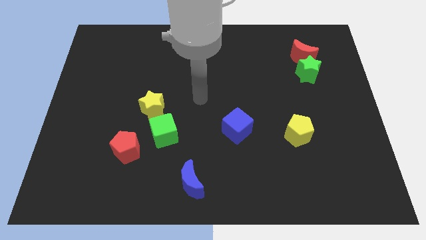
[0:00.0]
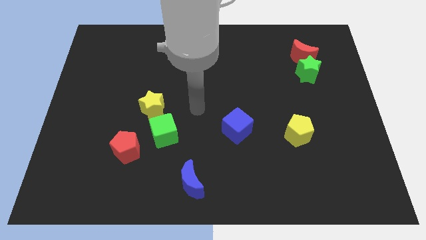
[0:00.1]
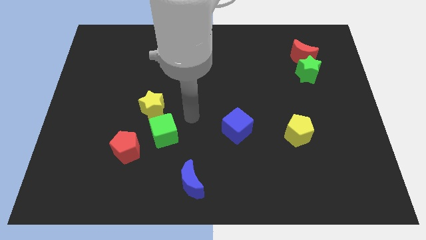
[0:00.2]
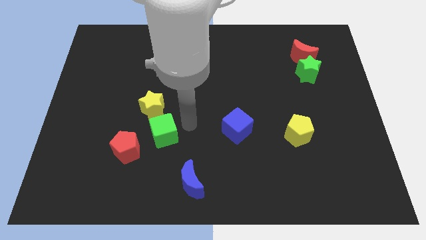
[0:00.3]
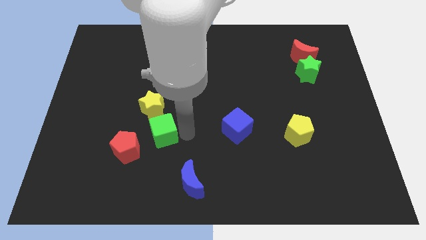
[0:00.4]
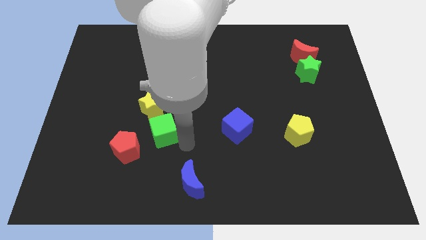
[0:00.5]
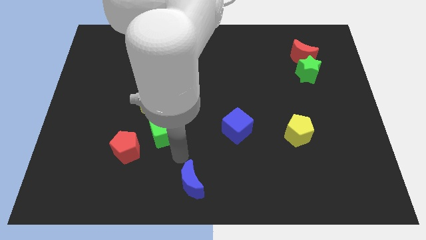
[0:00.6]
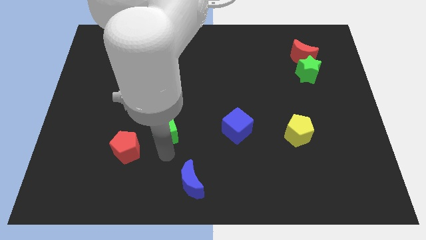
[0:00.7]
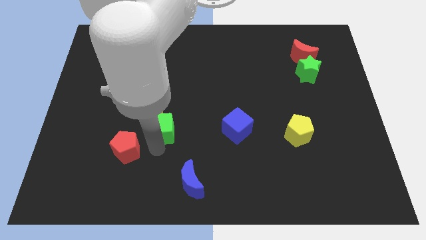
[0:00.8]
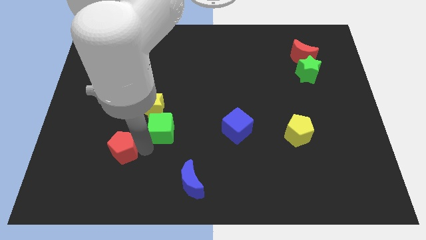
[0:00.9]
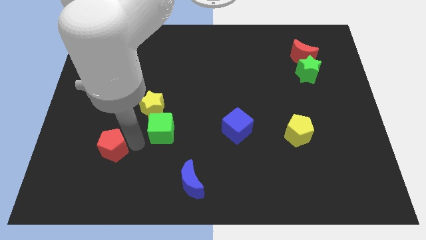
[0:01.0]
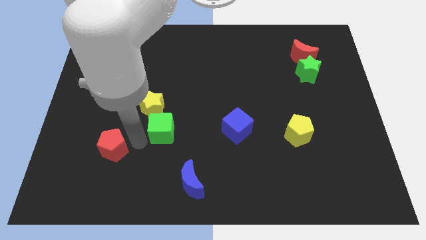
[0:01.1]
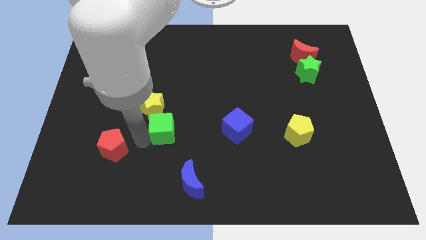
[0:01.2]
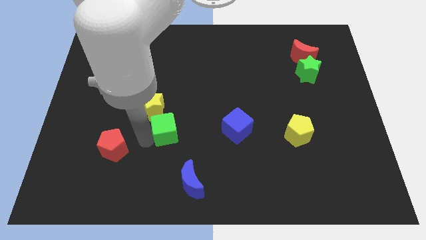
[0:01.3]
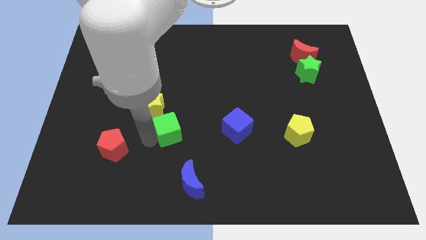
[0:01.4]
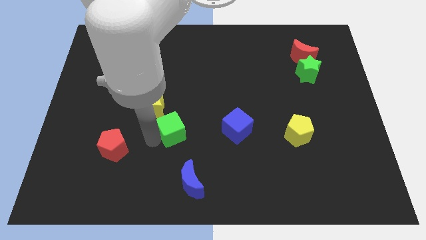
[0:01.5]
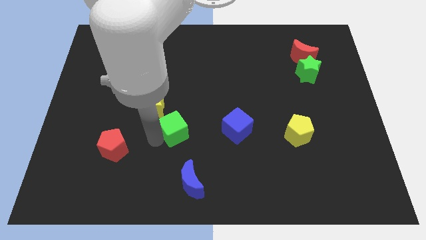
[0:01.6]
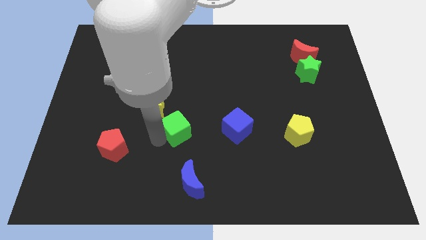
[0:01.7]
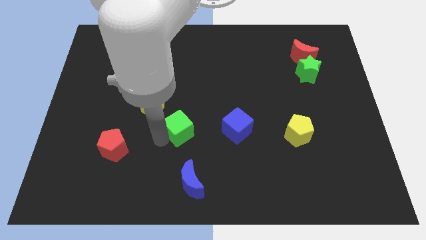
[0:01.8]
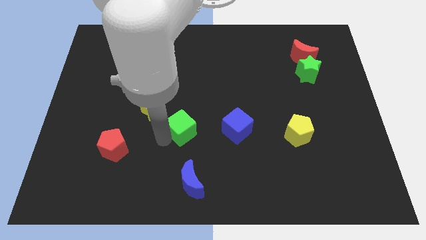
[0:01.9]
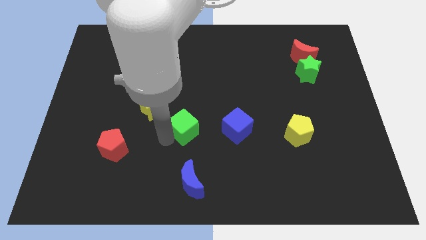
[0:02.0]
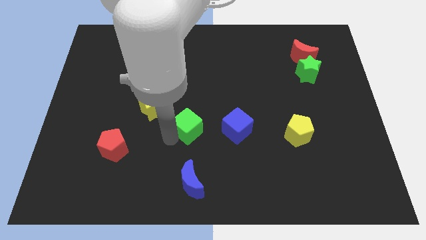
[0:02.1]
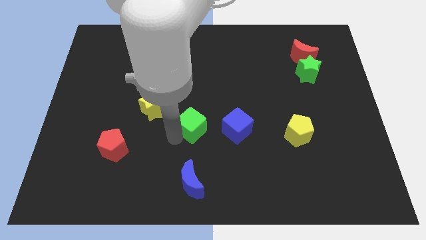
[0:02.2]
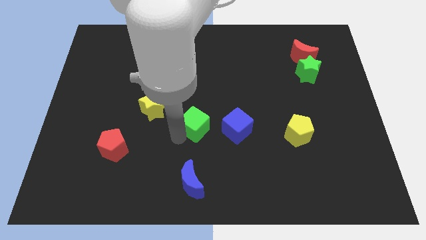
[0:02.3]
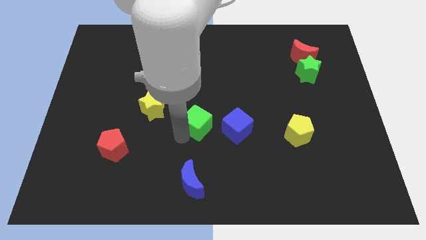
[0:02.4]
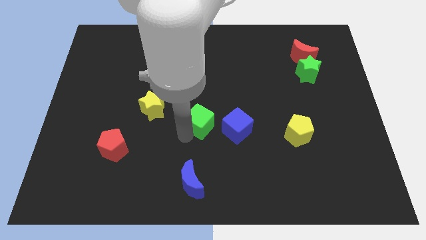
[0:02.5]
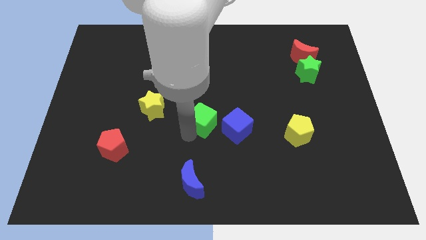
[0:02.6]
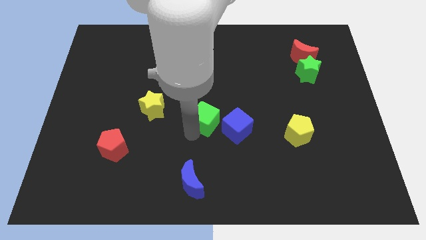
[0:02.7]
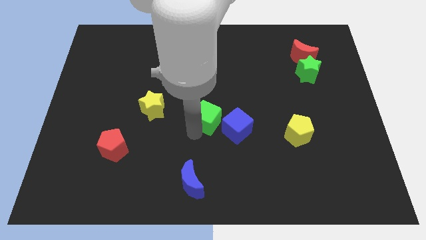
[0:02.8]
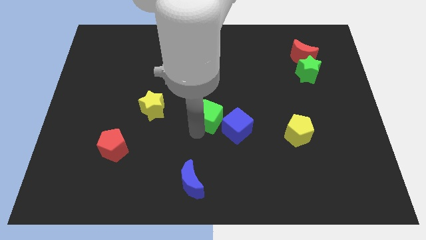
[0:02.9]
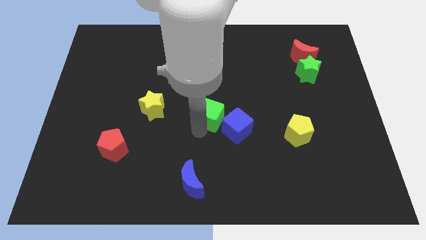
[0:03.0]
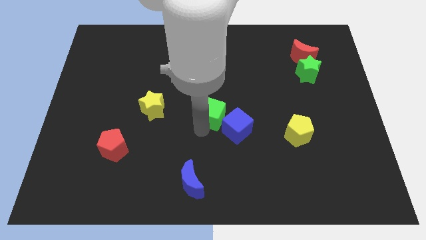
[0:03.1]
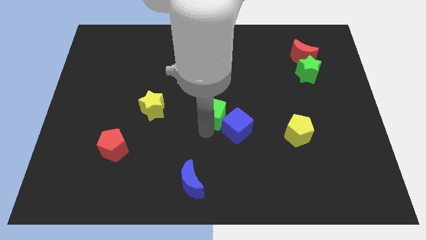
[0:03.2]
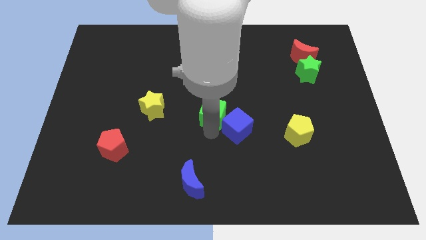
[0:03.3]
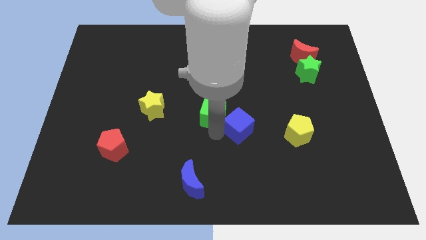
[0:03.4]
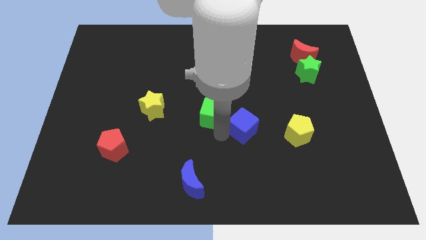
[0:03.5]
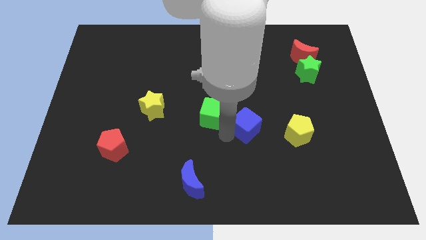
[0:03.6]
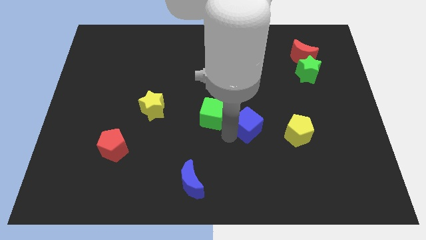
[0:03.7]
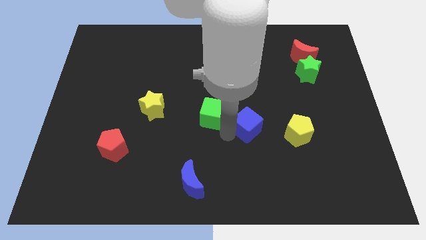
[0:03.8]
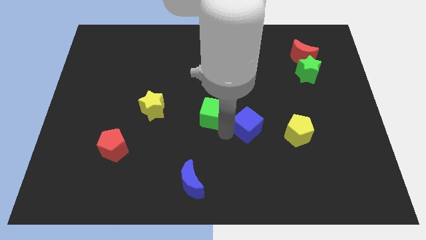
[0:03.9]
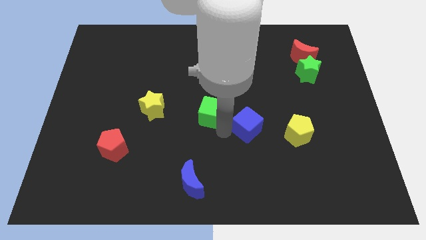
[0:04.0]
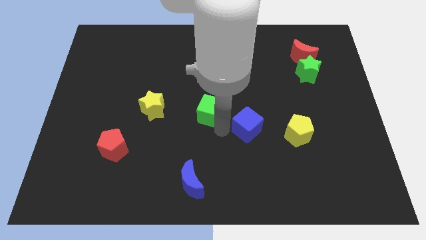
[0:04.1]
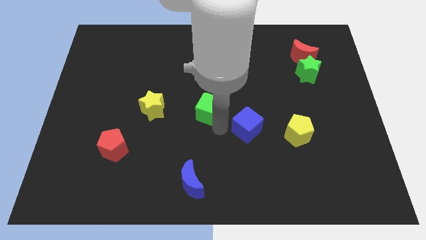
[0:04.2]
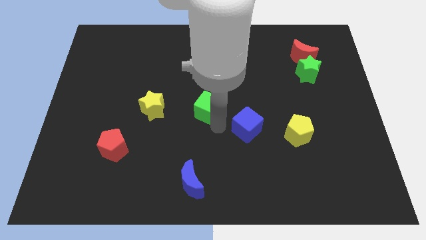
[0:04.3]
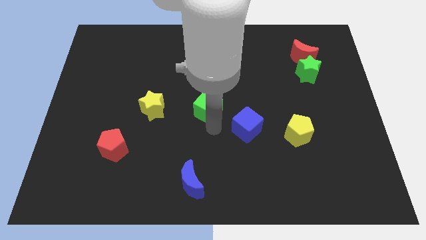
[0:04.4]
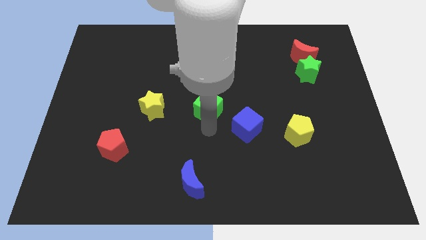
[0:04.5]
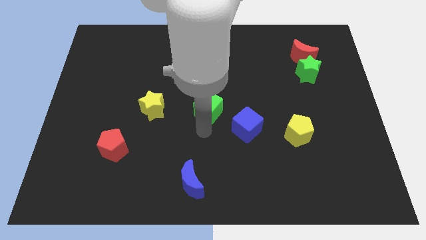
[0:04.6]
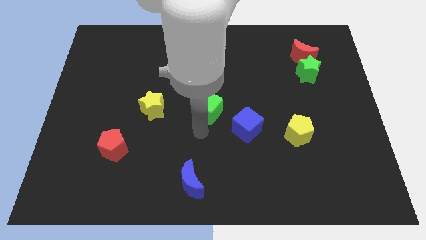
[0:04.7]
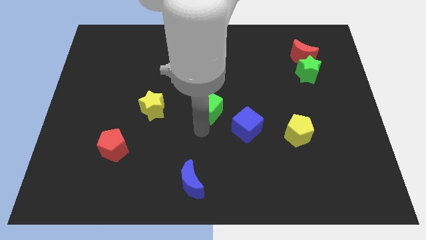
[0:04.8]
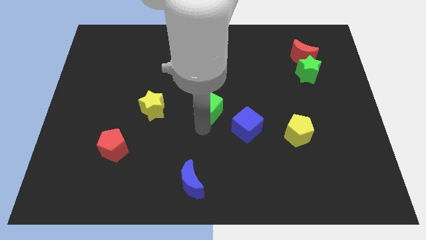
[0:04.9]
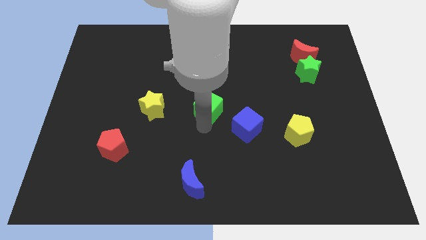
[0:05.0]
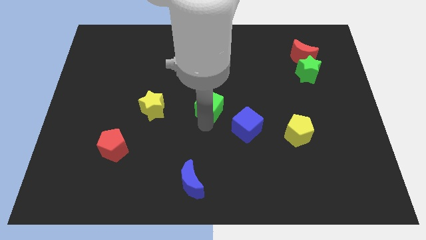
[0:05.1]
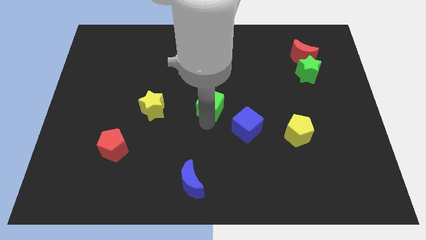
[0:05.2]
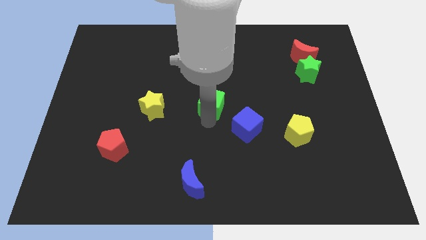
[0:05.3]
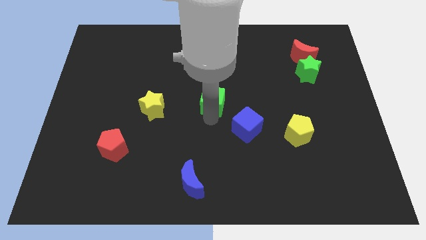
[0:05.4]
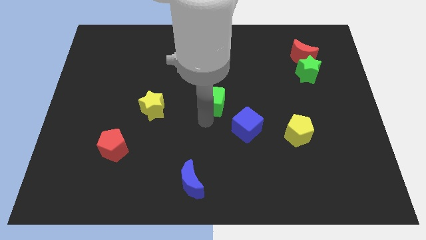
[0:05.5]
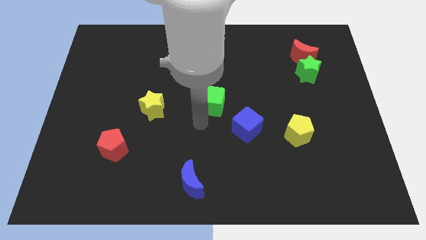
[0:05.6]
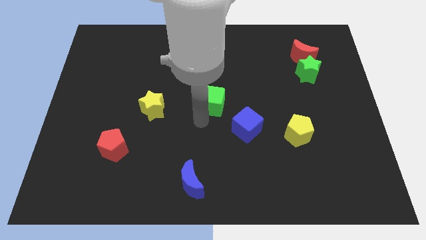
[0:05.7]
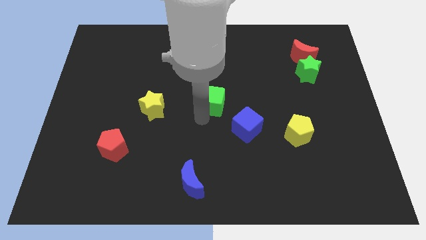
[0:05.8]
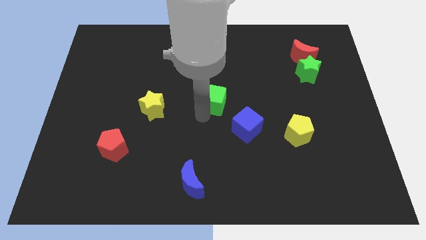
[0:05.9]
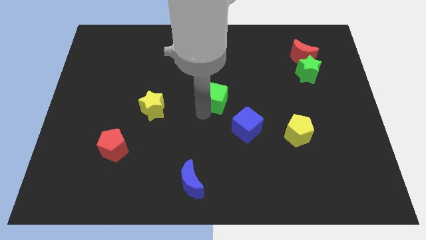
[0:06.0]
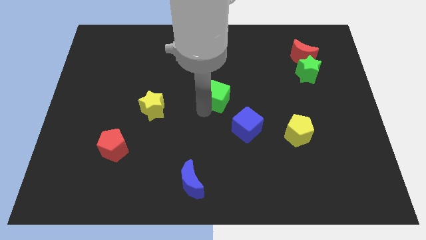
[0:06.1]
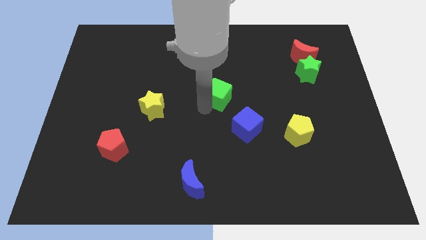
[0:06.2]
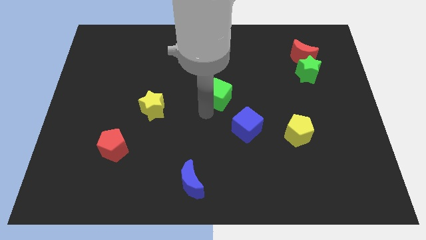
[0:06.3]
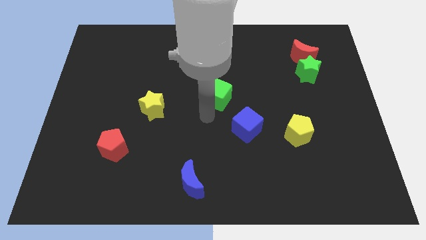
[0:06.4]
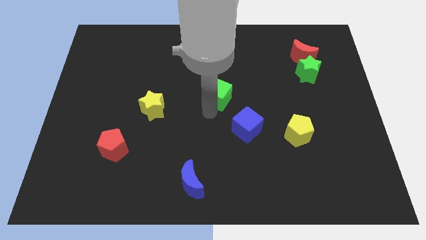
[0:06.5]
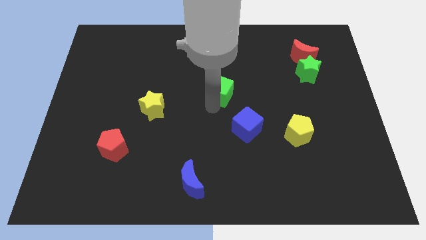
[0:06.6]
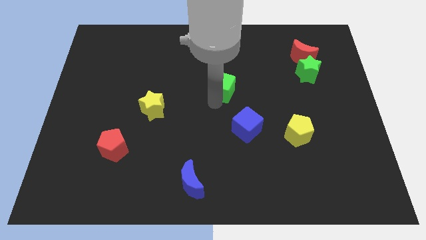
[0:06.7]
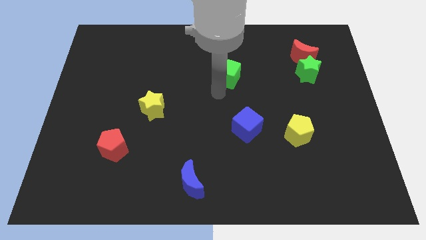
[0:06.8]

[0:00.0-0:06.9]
move the green cube up and then right

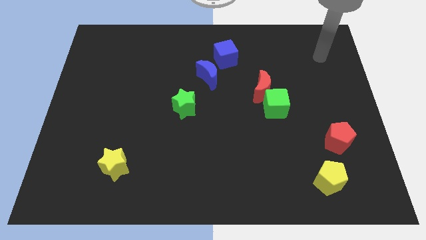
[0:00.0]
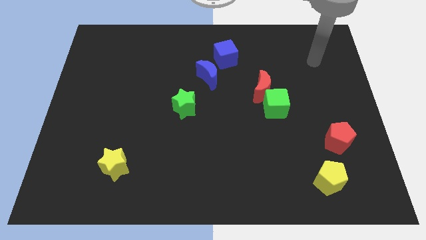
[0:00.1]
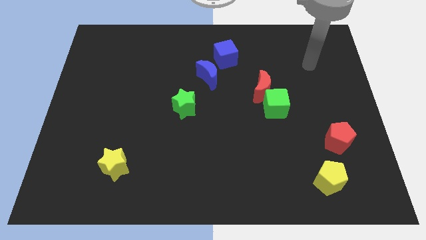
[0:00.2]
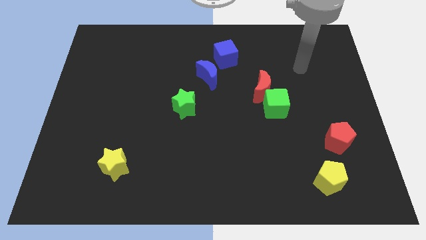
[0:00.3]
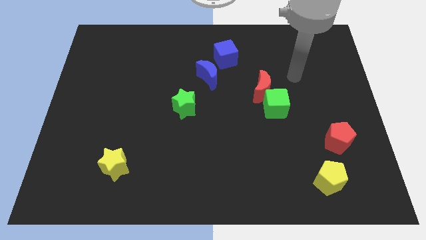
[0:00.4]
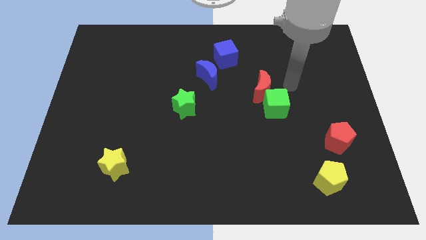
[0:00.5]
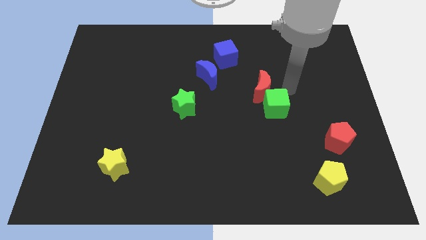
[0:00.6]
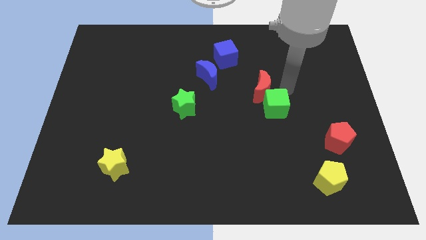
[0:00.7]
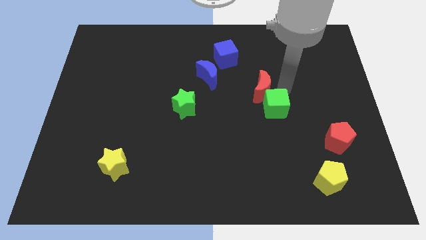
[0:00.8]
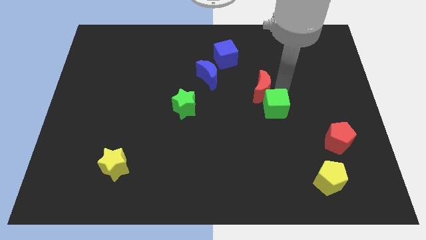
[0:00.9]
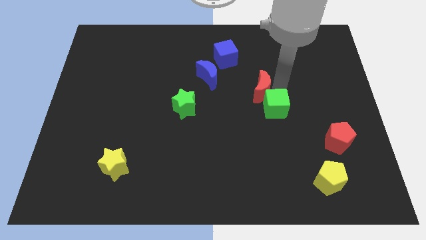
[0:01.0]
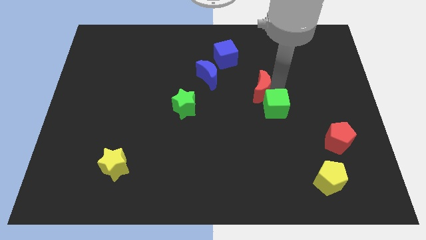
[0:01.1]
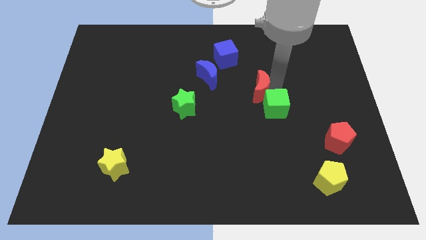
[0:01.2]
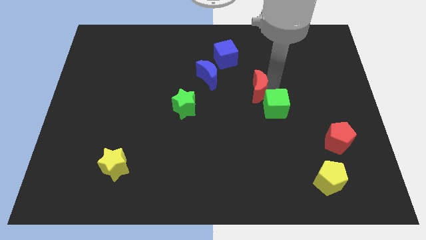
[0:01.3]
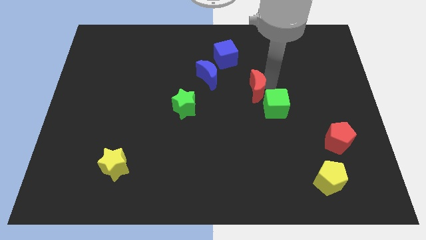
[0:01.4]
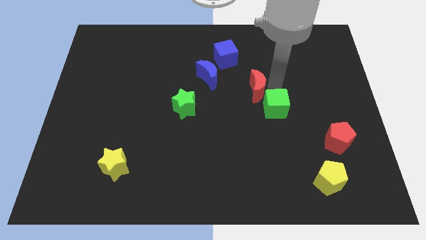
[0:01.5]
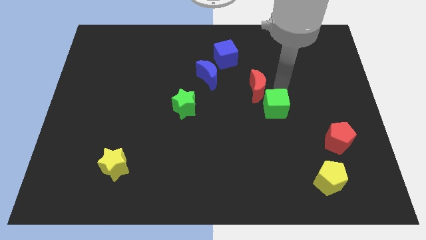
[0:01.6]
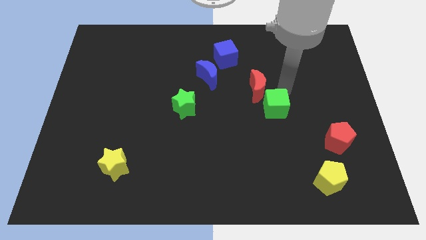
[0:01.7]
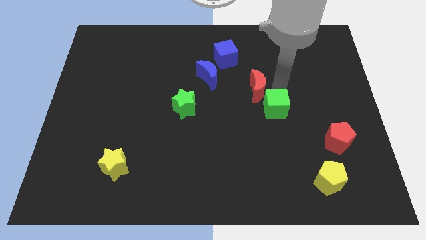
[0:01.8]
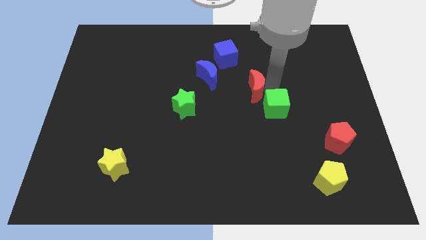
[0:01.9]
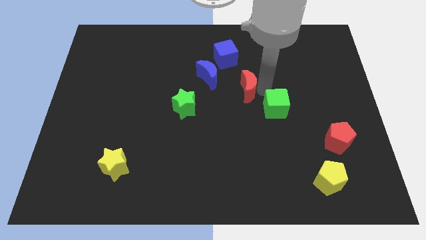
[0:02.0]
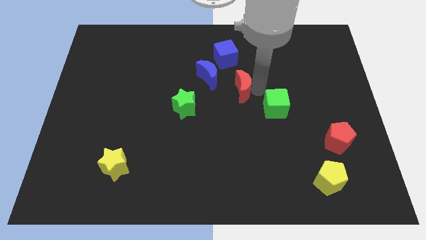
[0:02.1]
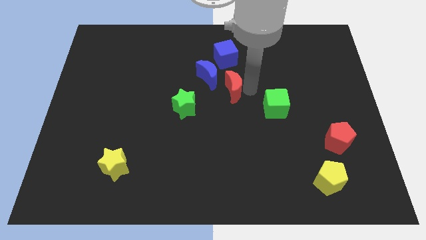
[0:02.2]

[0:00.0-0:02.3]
slide the red moon a little left
